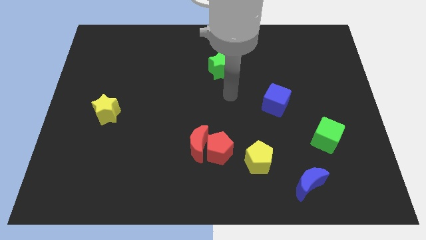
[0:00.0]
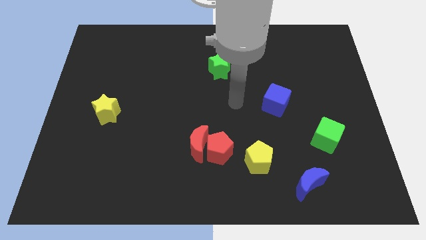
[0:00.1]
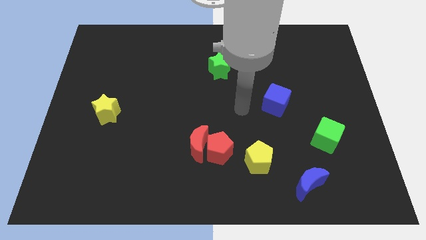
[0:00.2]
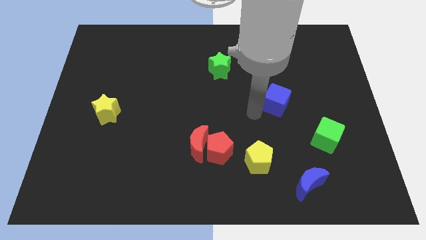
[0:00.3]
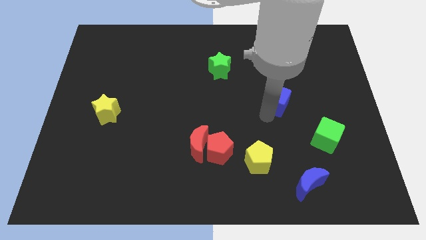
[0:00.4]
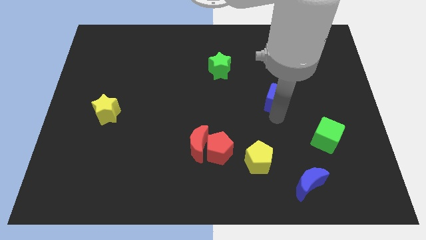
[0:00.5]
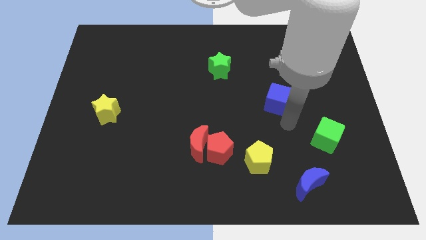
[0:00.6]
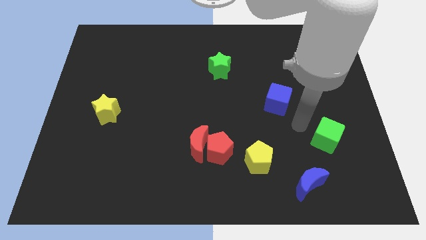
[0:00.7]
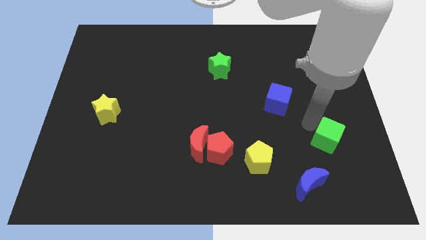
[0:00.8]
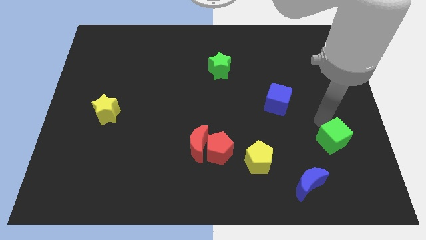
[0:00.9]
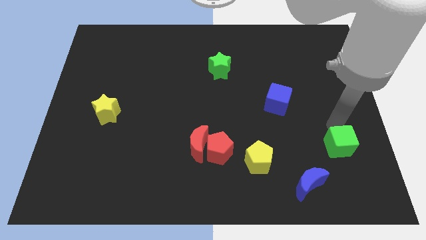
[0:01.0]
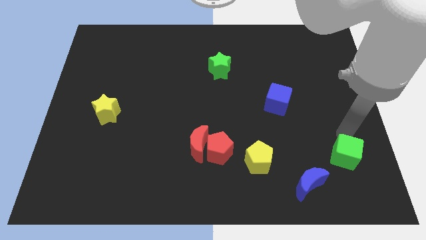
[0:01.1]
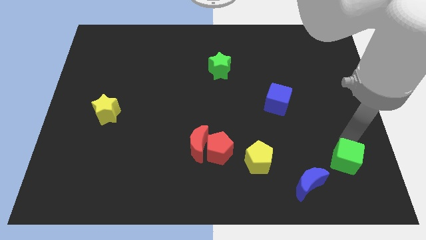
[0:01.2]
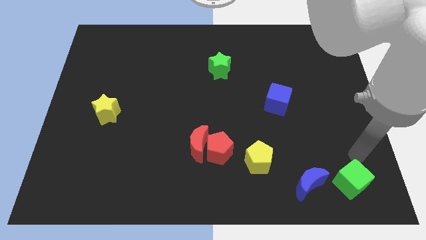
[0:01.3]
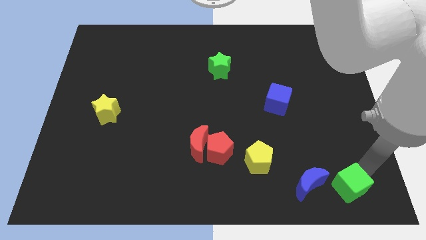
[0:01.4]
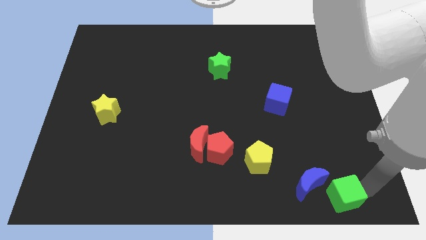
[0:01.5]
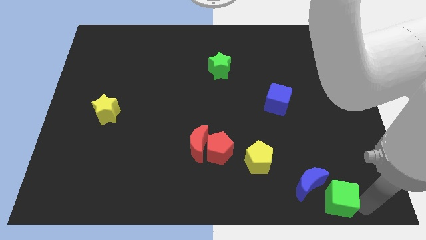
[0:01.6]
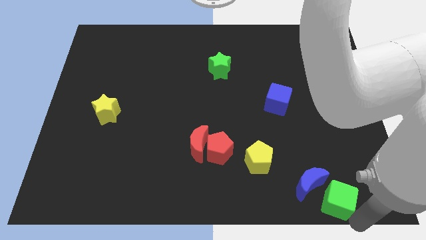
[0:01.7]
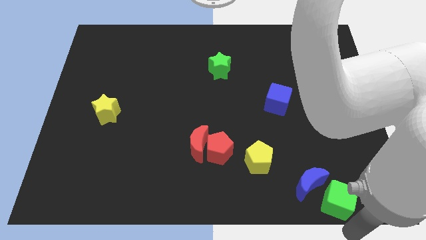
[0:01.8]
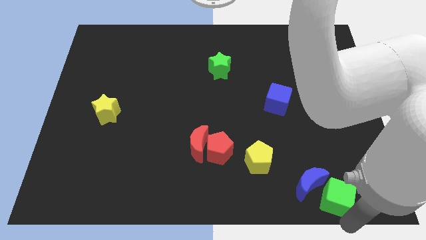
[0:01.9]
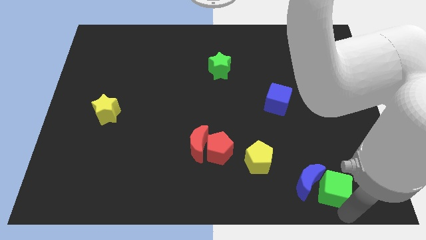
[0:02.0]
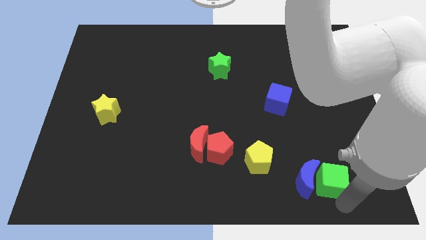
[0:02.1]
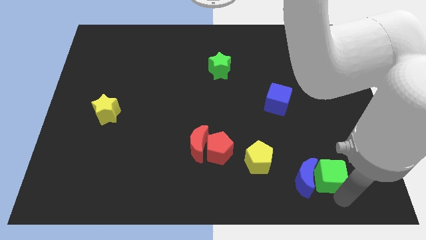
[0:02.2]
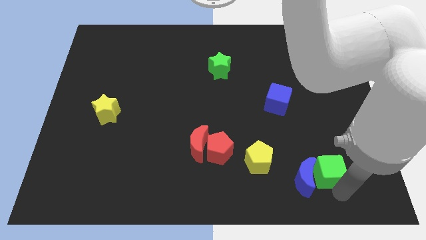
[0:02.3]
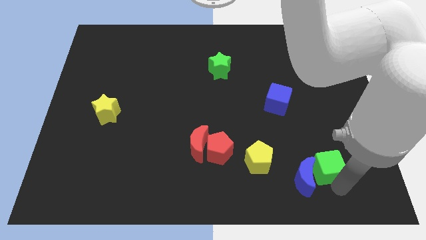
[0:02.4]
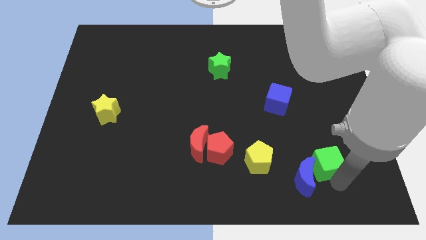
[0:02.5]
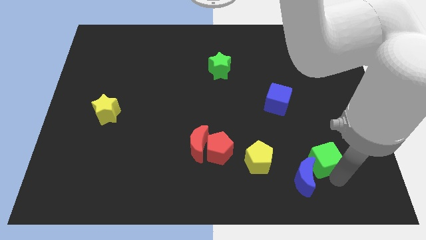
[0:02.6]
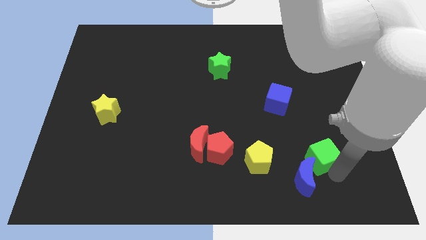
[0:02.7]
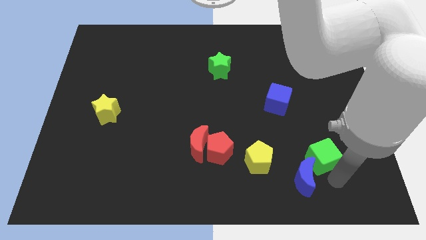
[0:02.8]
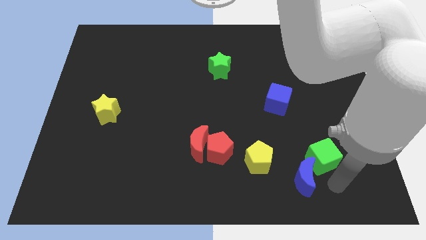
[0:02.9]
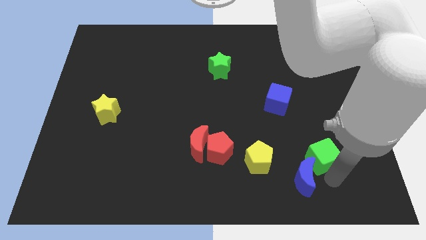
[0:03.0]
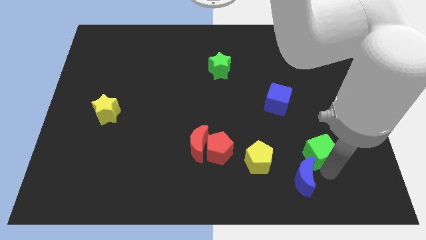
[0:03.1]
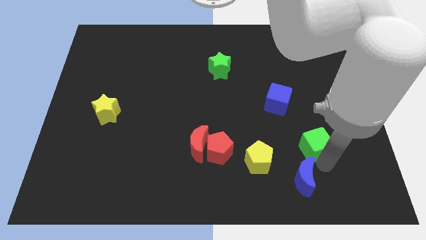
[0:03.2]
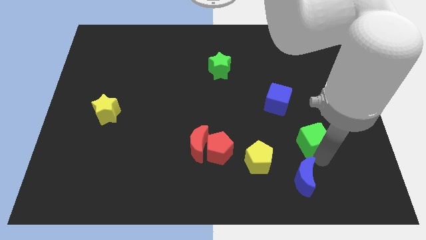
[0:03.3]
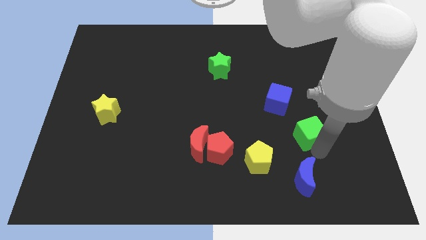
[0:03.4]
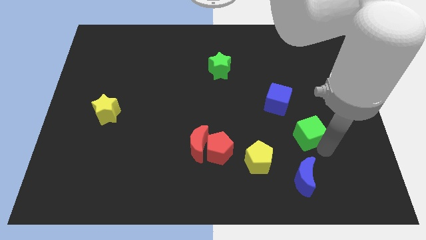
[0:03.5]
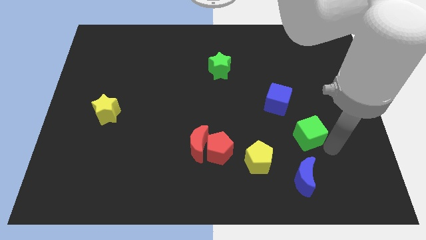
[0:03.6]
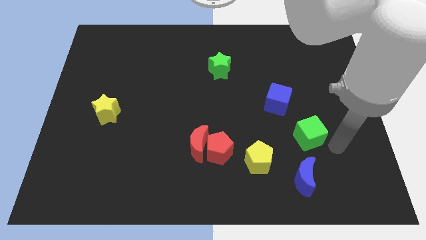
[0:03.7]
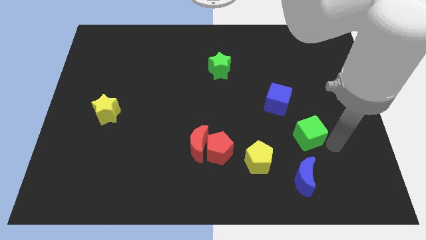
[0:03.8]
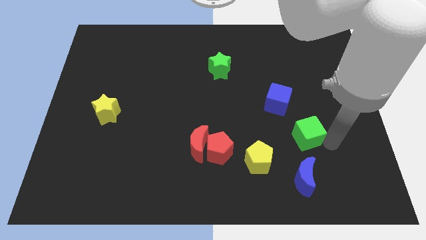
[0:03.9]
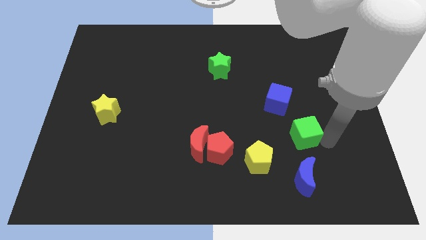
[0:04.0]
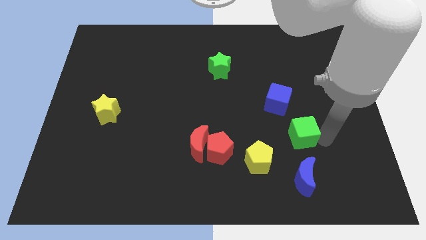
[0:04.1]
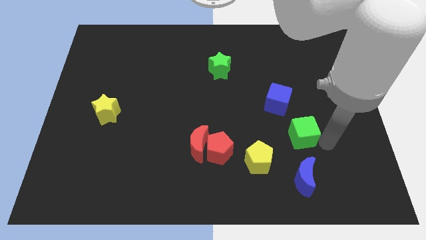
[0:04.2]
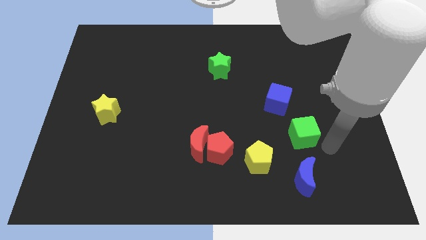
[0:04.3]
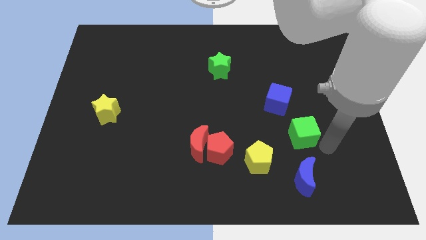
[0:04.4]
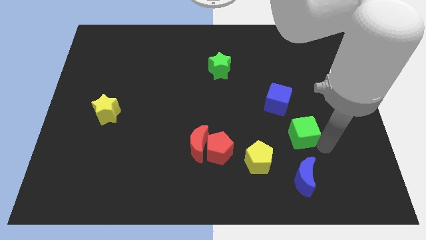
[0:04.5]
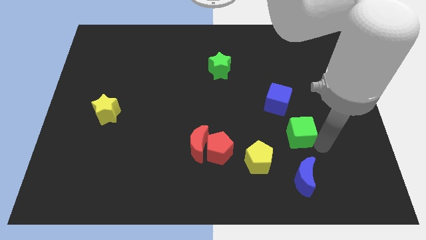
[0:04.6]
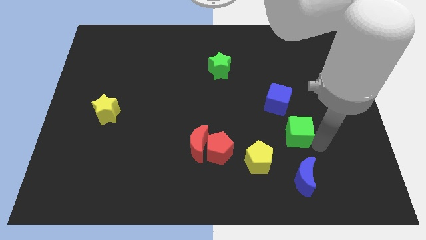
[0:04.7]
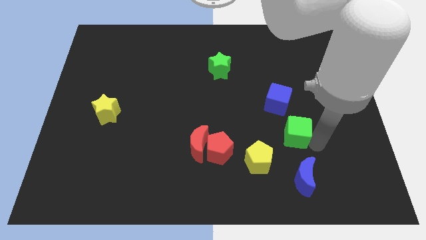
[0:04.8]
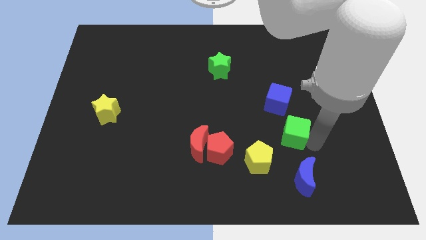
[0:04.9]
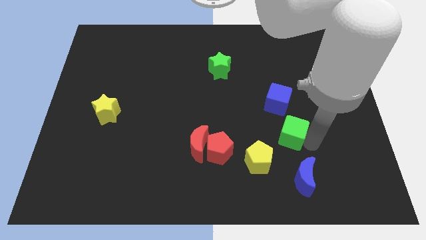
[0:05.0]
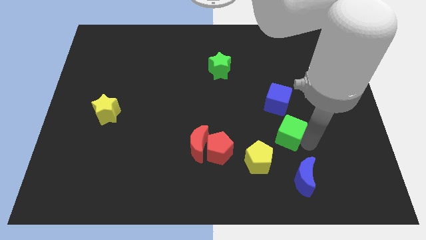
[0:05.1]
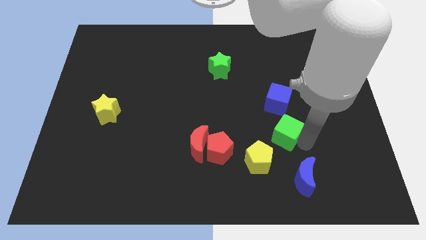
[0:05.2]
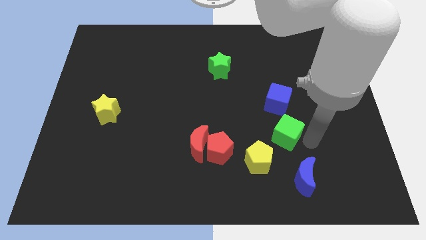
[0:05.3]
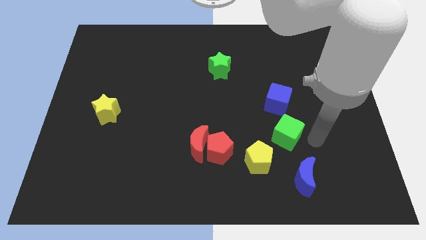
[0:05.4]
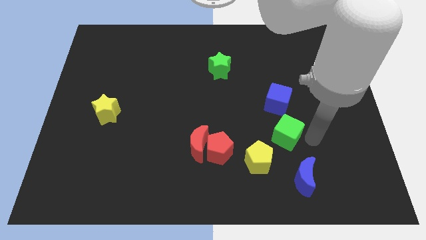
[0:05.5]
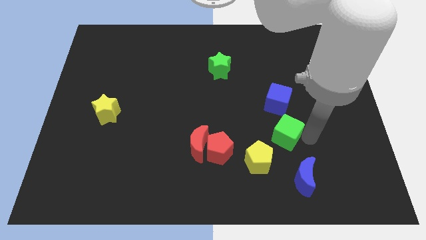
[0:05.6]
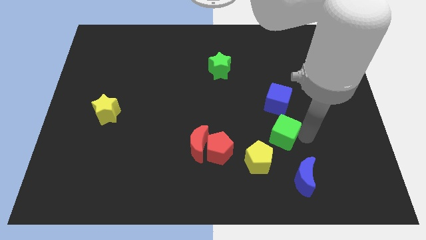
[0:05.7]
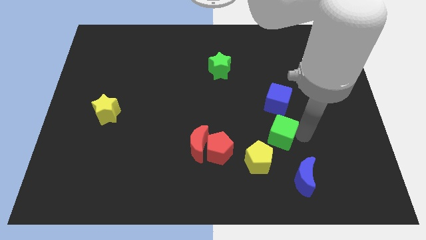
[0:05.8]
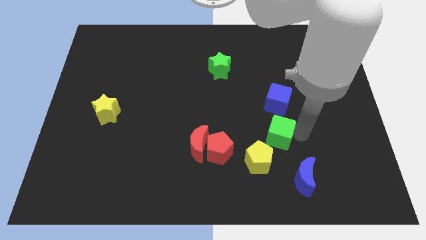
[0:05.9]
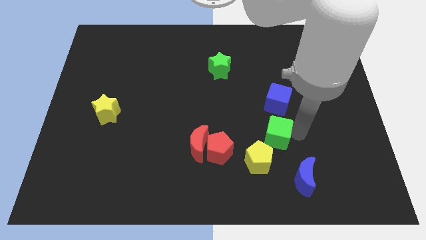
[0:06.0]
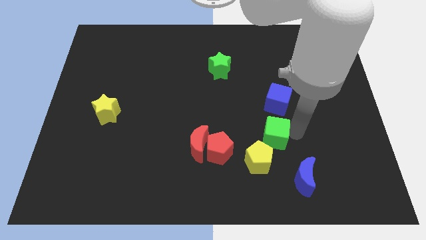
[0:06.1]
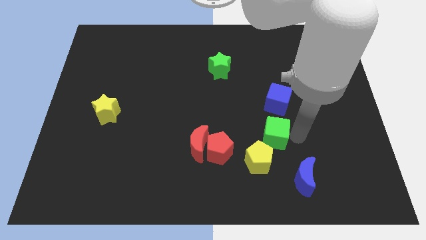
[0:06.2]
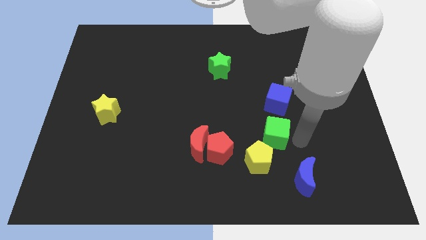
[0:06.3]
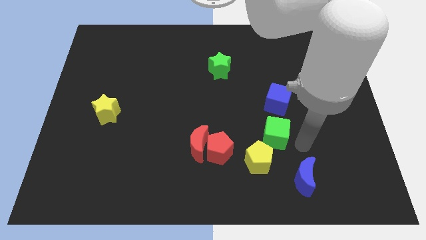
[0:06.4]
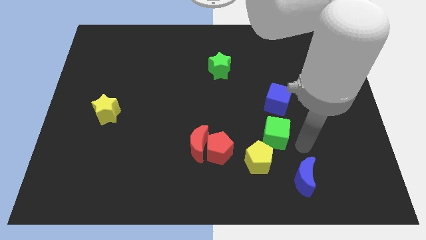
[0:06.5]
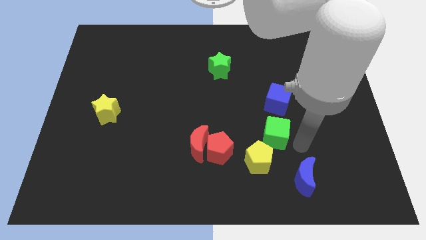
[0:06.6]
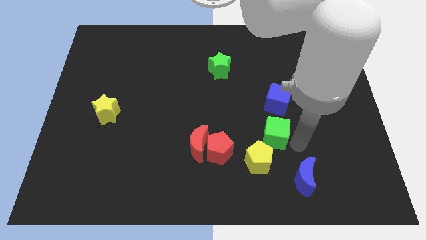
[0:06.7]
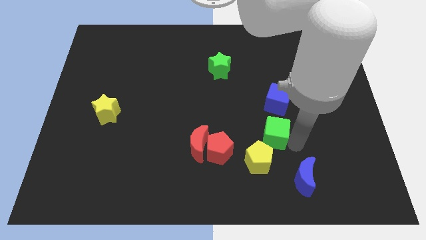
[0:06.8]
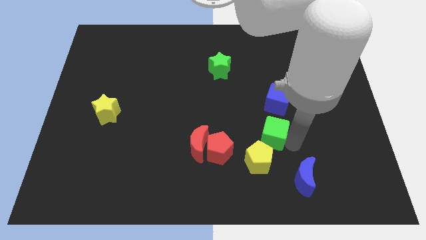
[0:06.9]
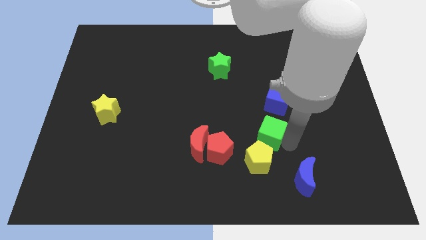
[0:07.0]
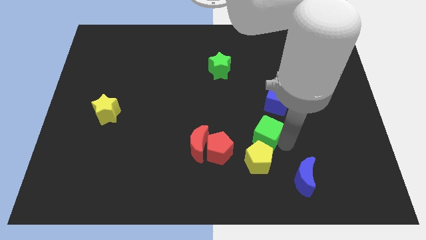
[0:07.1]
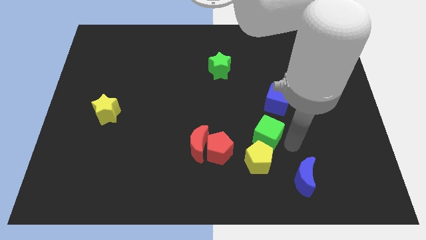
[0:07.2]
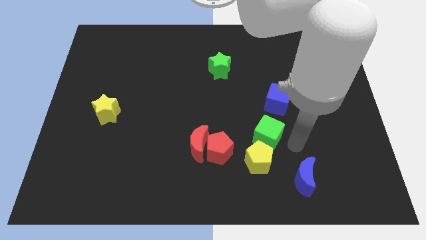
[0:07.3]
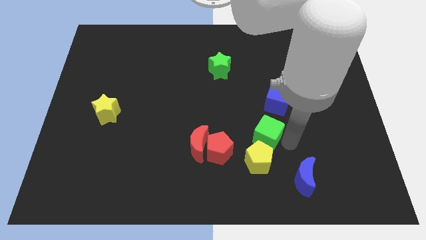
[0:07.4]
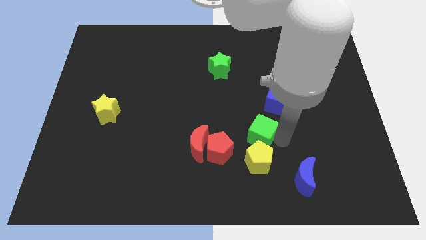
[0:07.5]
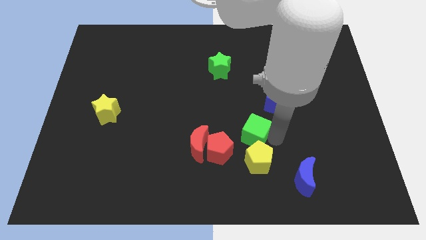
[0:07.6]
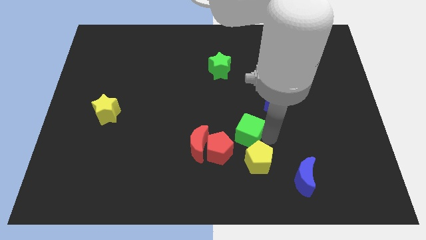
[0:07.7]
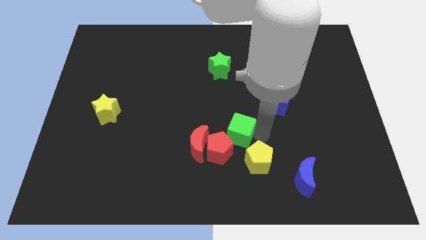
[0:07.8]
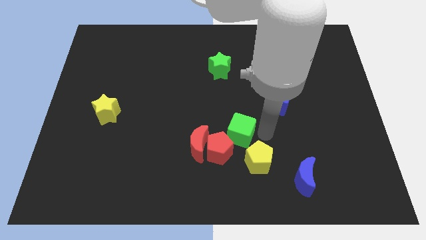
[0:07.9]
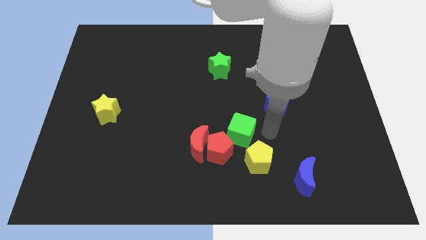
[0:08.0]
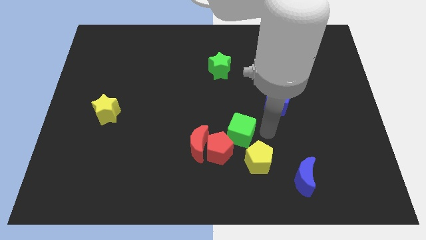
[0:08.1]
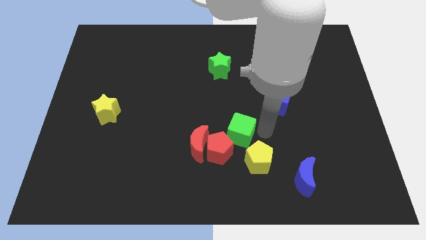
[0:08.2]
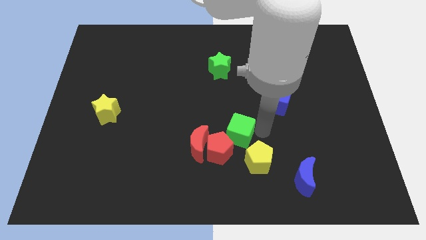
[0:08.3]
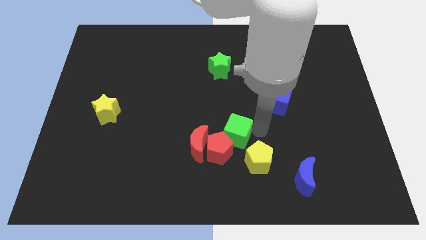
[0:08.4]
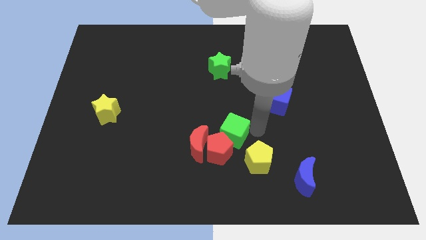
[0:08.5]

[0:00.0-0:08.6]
push the green cube to the left
